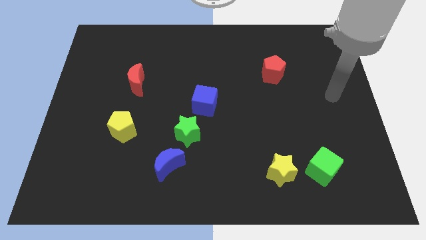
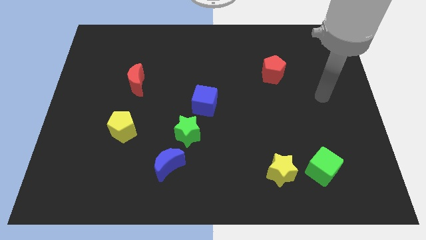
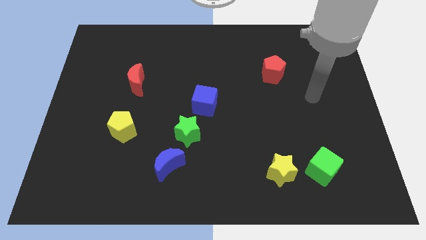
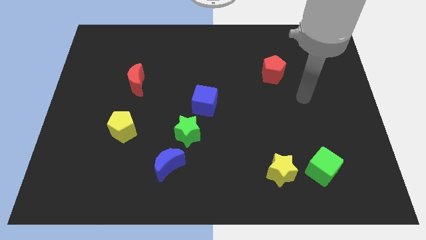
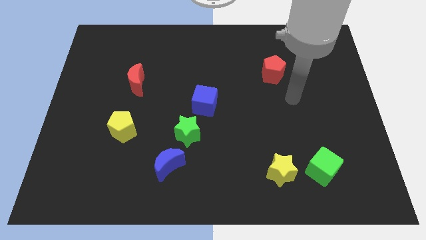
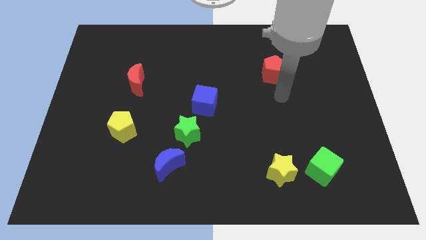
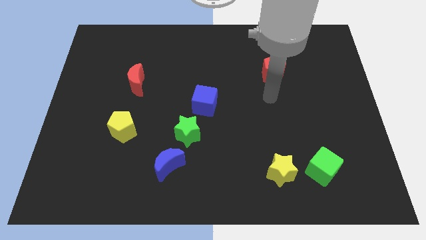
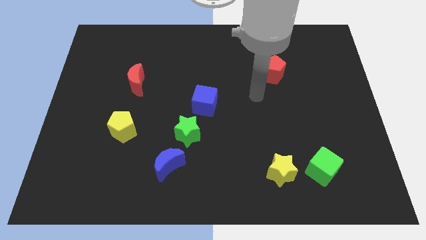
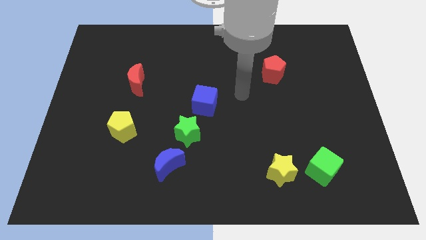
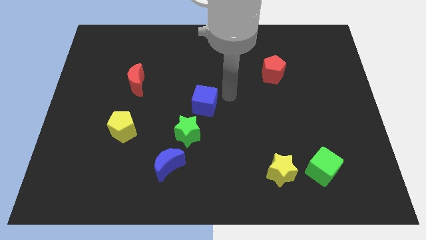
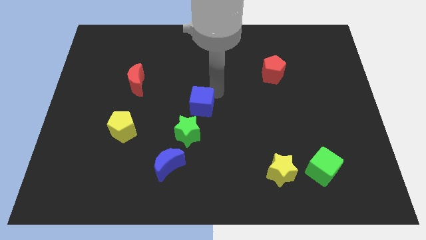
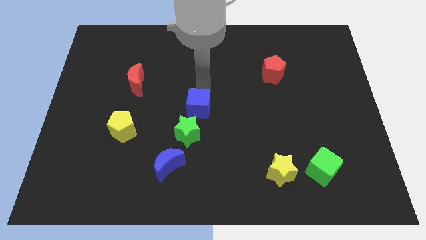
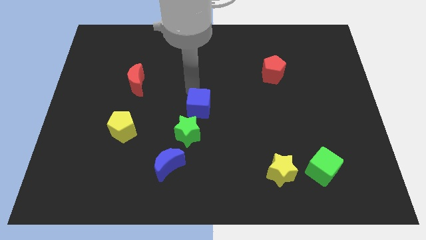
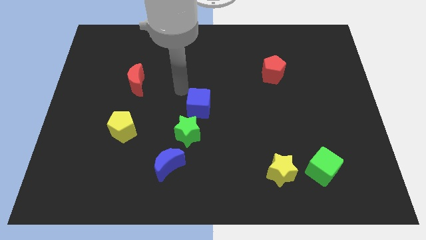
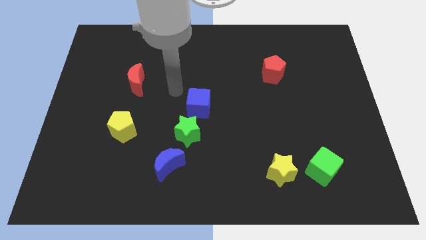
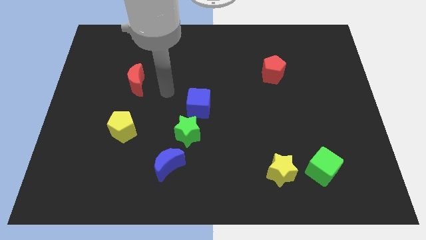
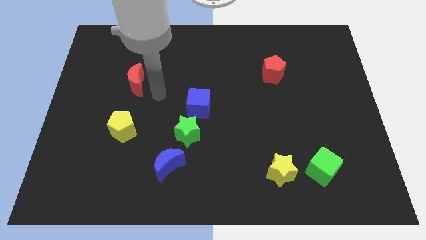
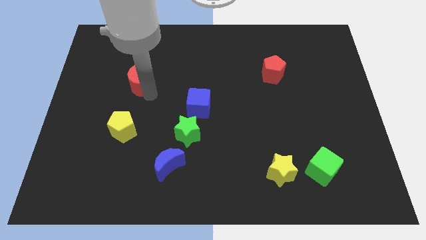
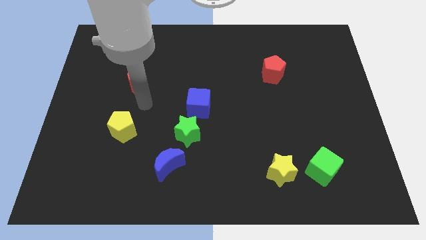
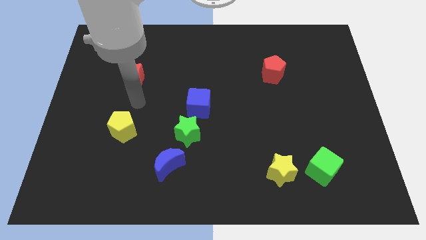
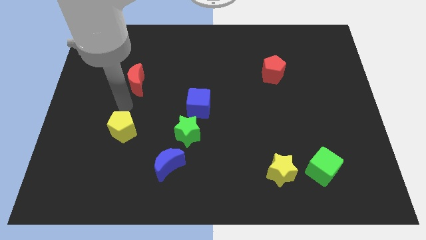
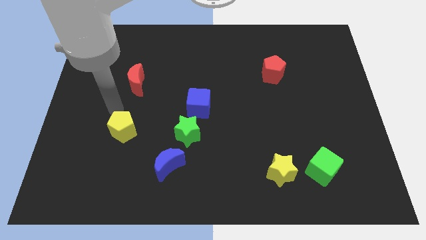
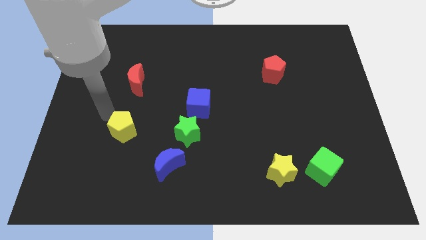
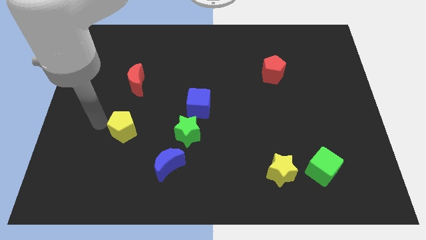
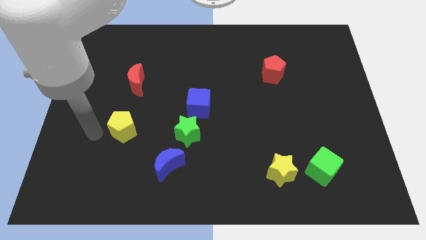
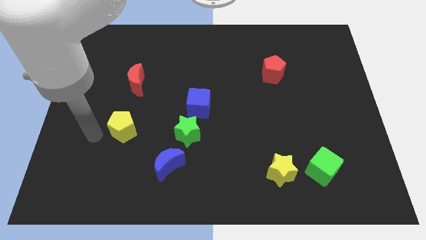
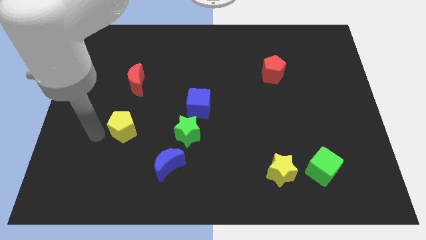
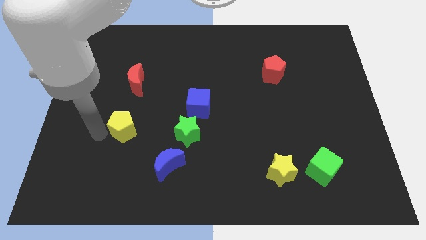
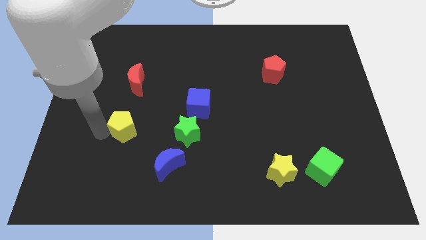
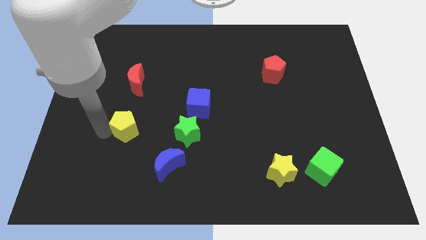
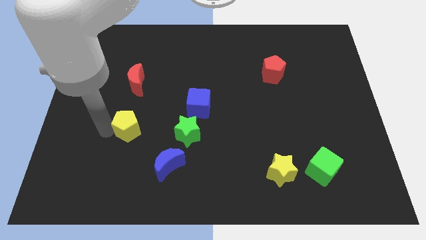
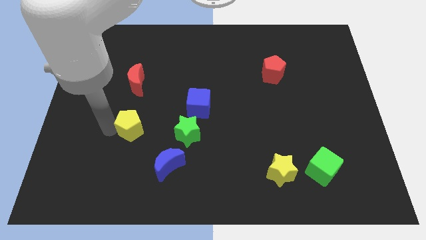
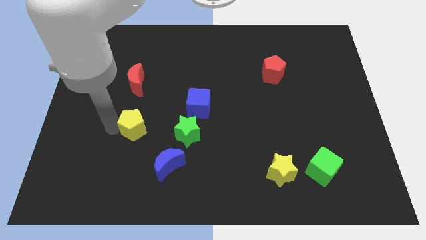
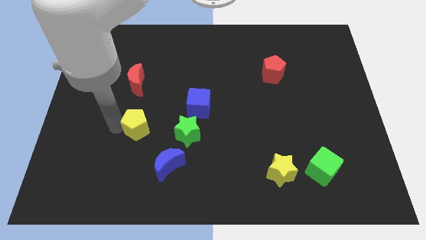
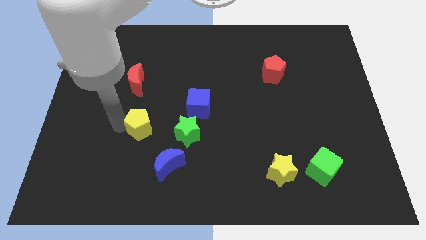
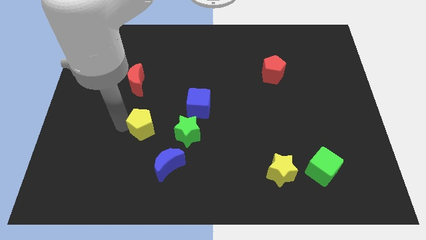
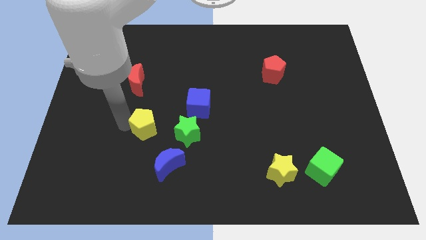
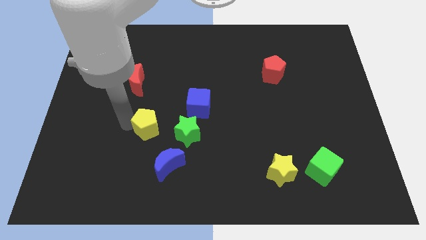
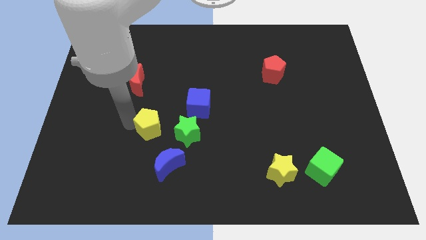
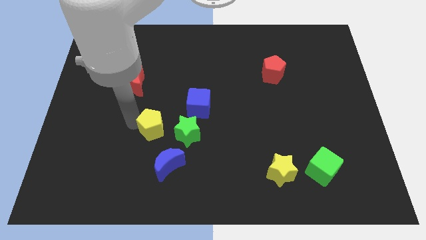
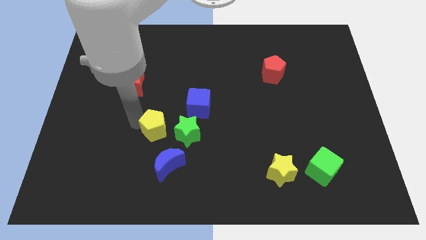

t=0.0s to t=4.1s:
slide the yellow pentagon somewhat right

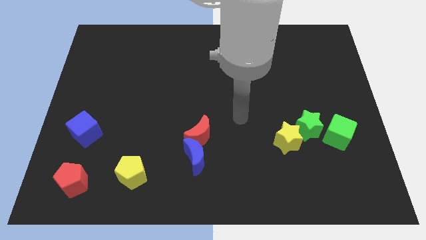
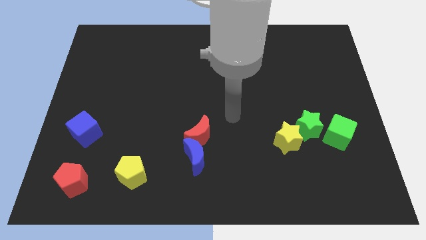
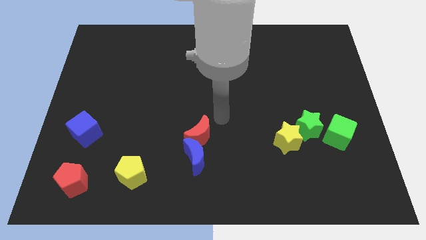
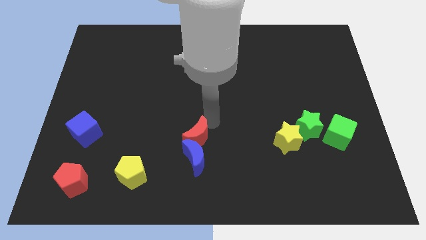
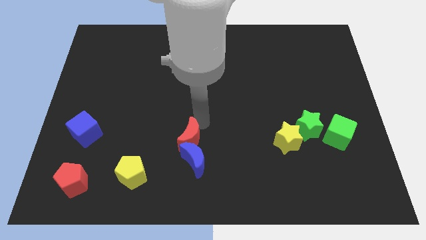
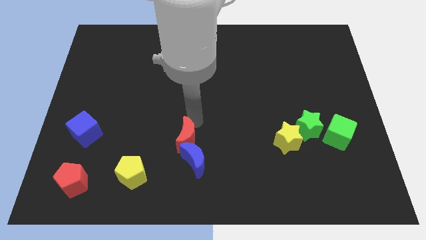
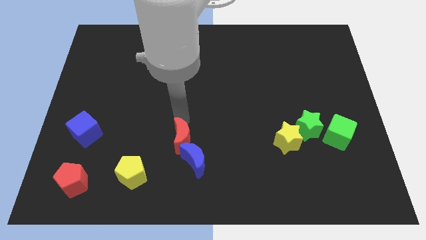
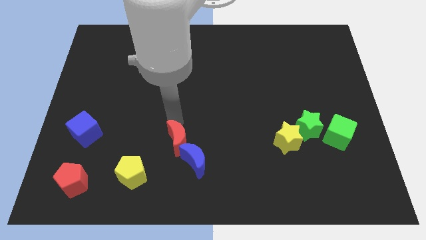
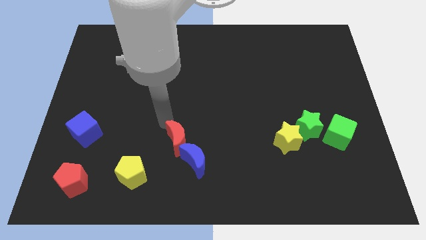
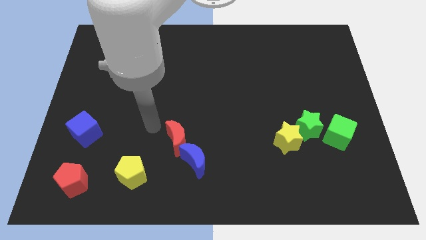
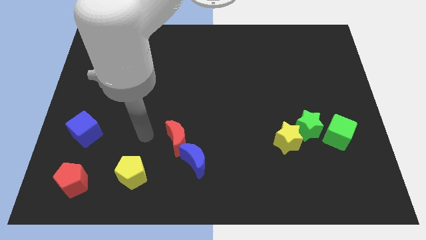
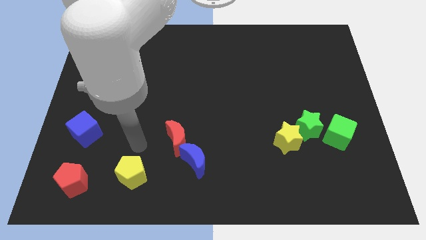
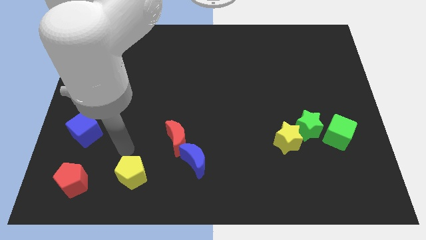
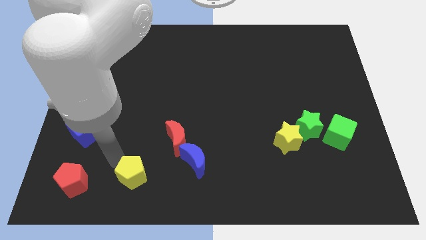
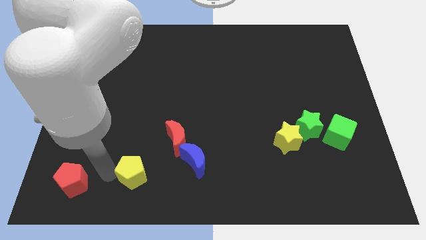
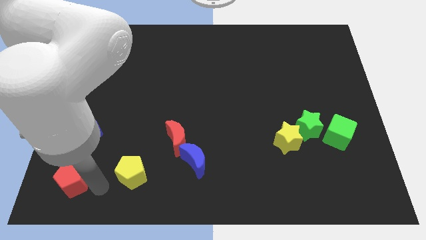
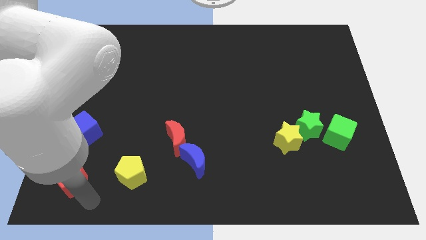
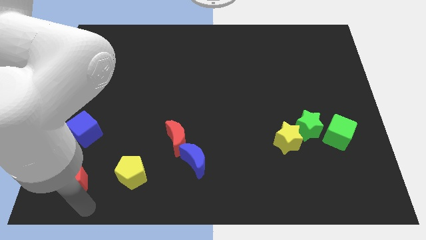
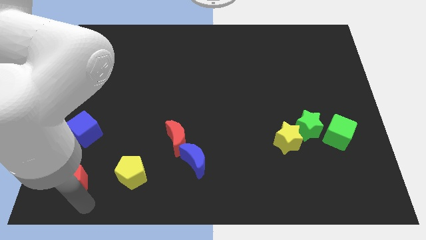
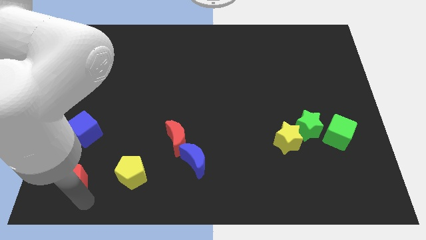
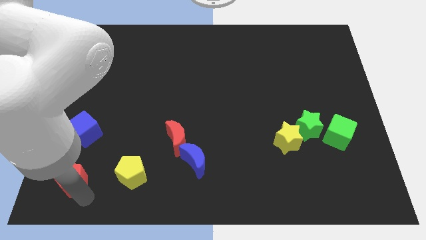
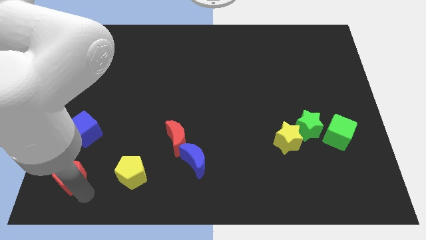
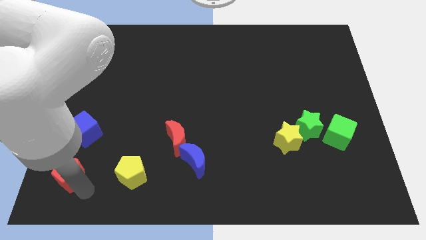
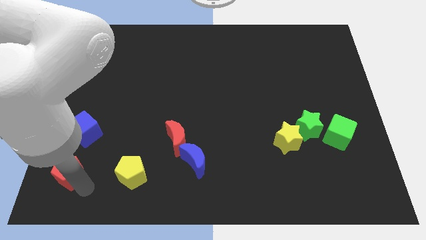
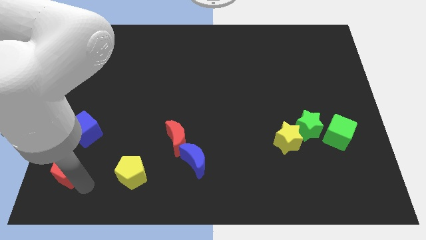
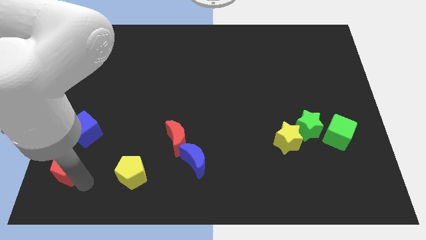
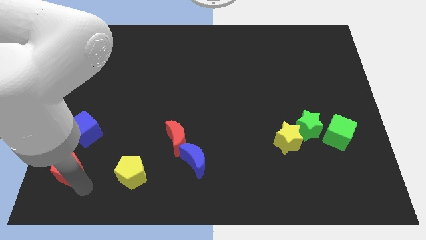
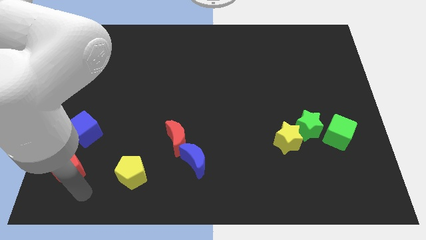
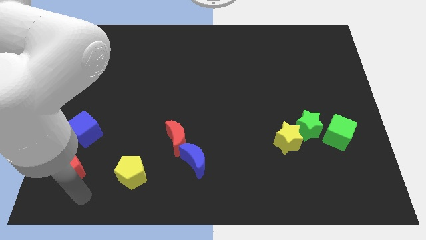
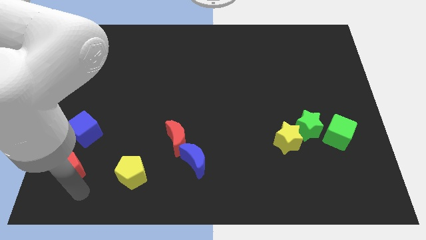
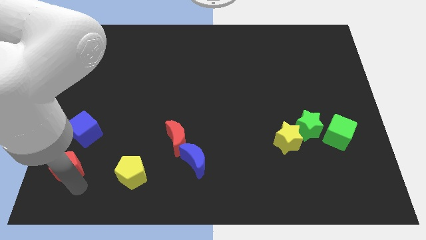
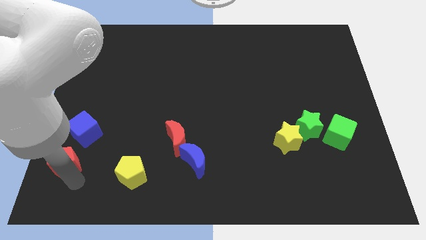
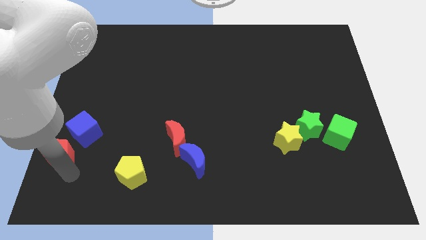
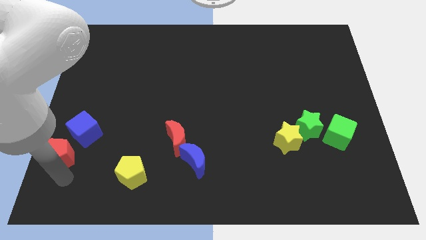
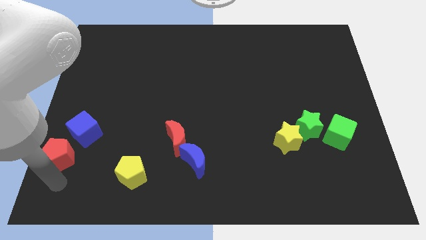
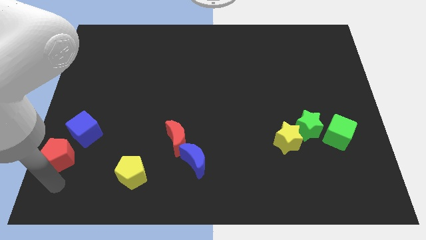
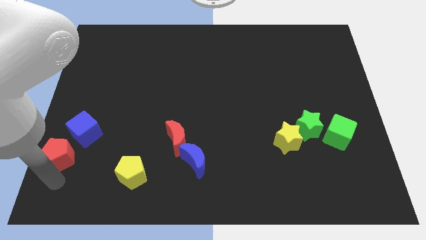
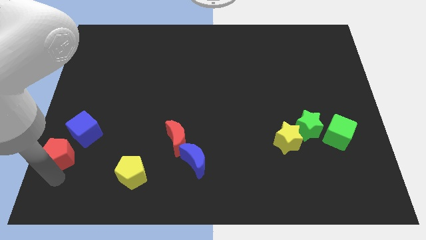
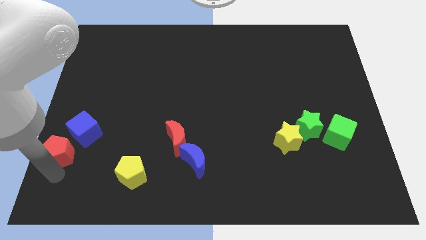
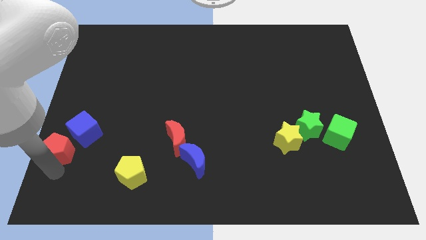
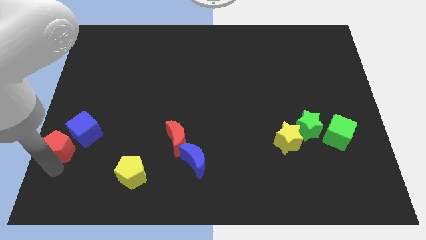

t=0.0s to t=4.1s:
slightly push the red pentagon upwards
